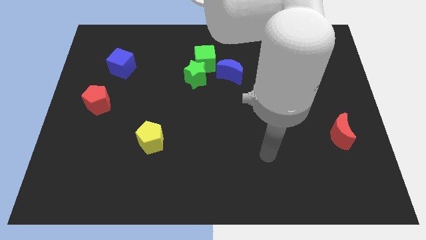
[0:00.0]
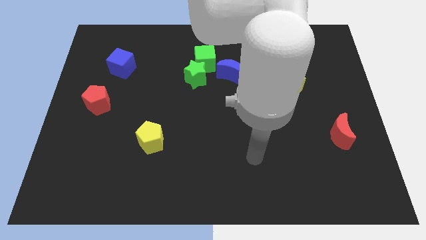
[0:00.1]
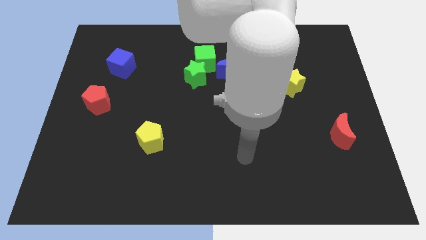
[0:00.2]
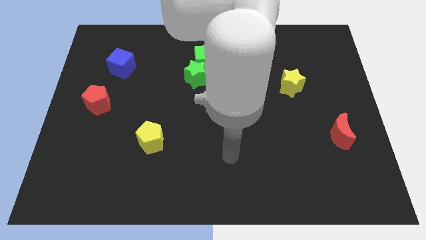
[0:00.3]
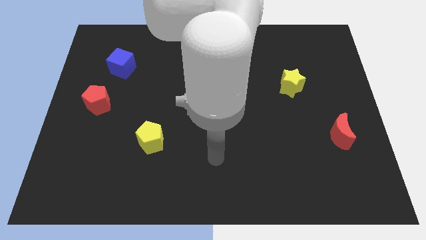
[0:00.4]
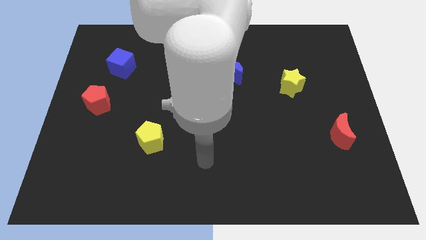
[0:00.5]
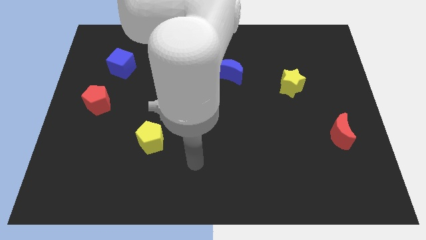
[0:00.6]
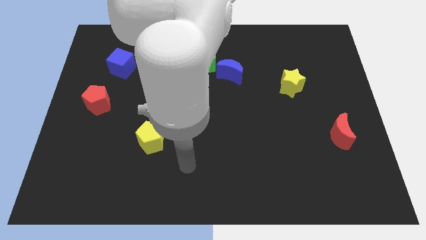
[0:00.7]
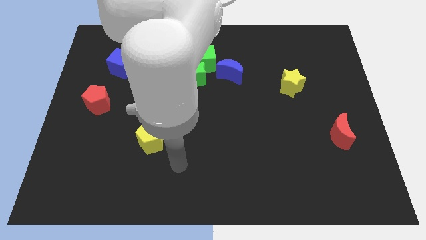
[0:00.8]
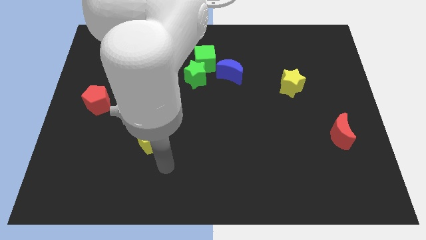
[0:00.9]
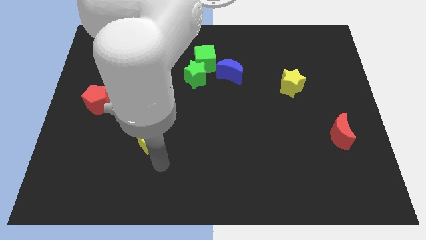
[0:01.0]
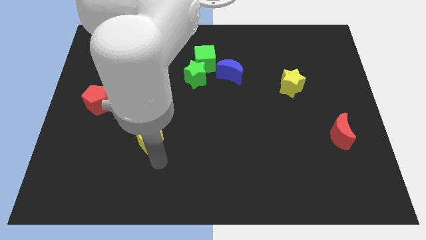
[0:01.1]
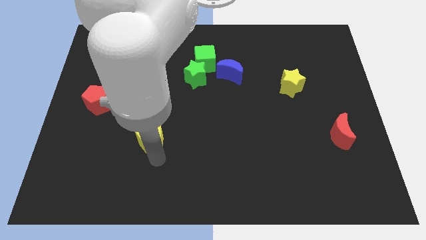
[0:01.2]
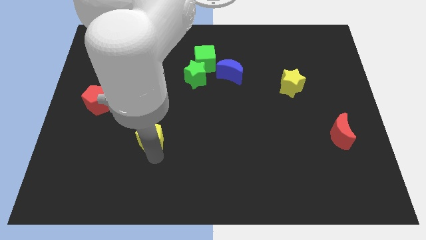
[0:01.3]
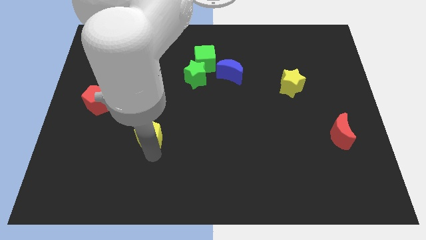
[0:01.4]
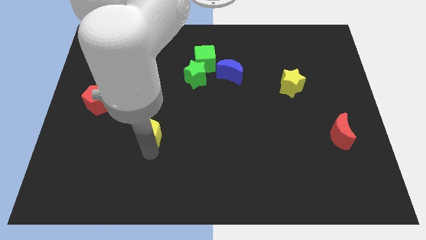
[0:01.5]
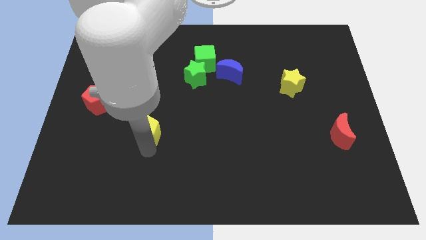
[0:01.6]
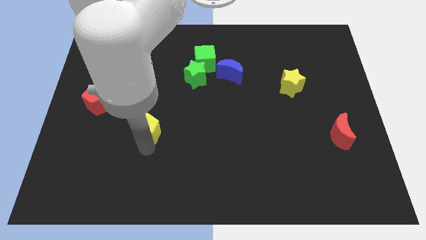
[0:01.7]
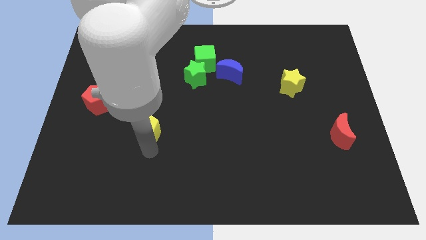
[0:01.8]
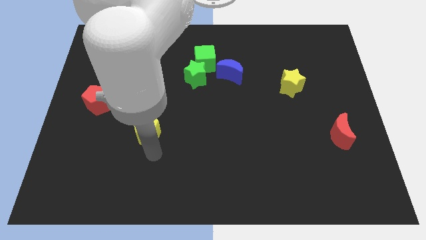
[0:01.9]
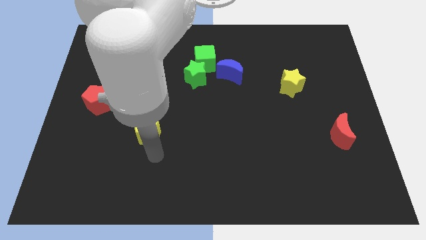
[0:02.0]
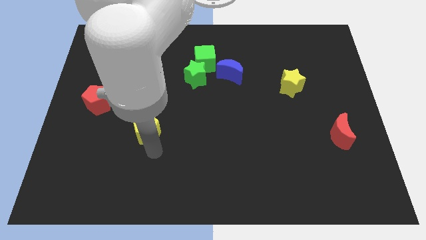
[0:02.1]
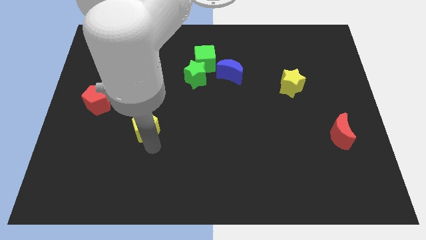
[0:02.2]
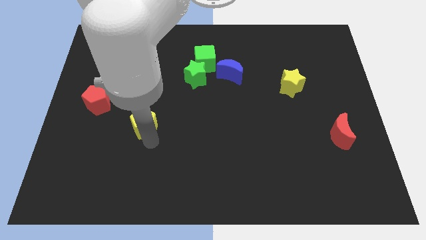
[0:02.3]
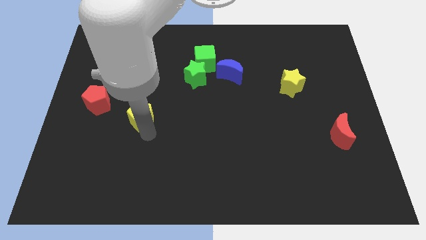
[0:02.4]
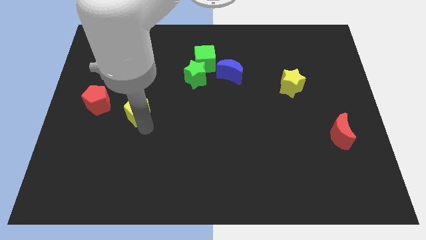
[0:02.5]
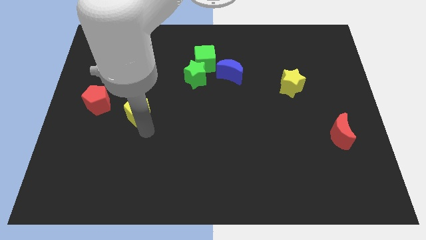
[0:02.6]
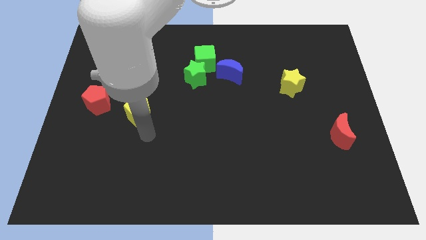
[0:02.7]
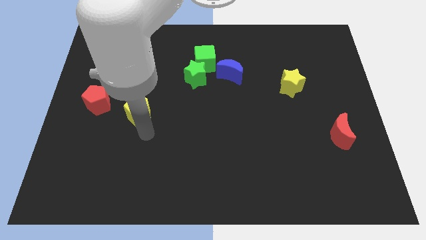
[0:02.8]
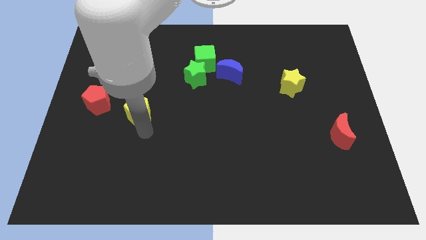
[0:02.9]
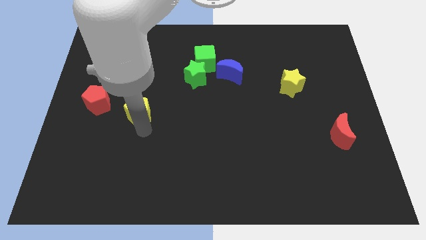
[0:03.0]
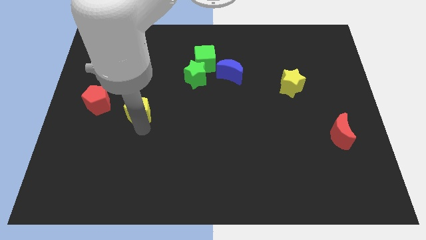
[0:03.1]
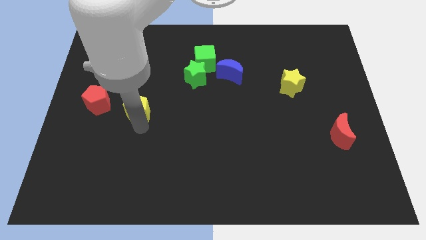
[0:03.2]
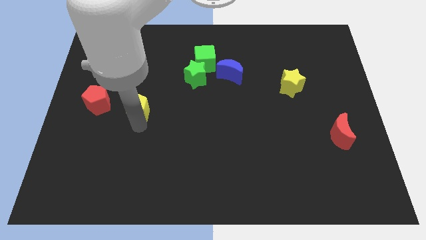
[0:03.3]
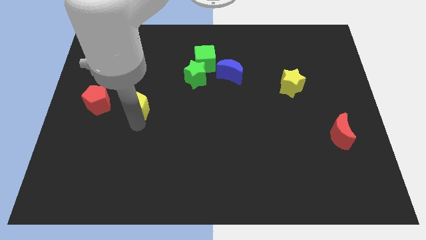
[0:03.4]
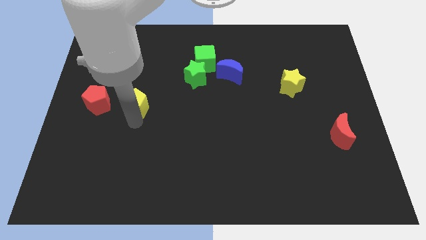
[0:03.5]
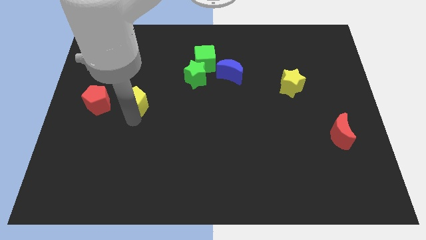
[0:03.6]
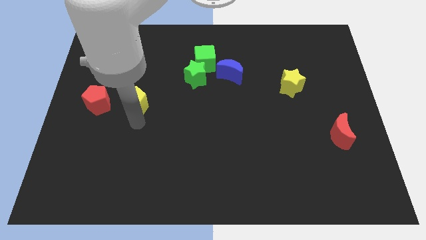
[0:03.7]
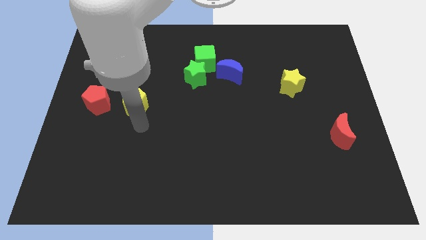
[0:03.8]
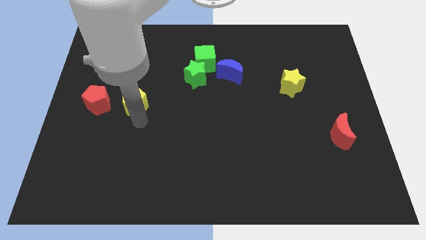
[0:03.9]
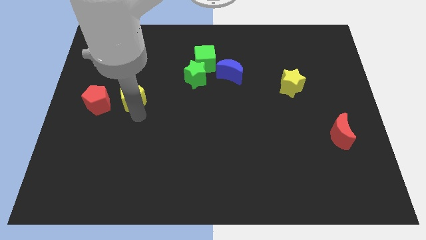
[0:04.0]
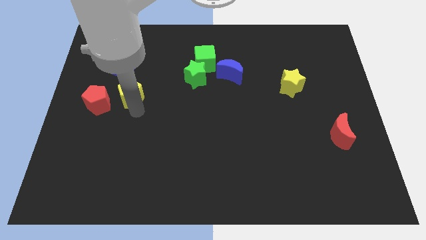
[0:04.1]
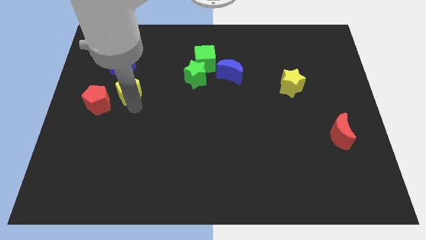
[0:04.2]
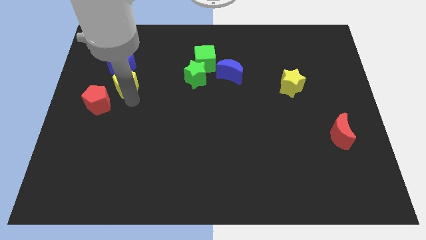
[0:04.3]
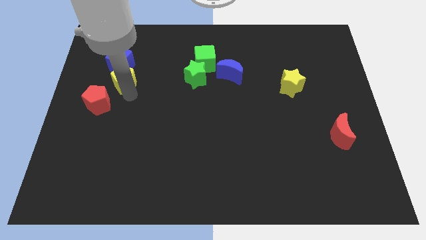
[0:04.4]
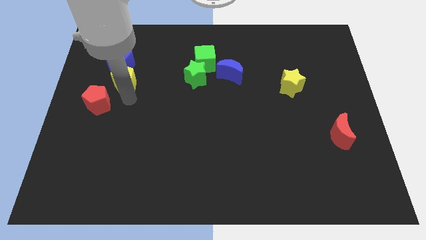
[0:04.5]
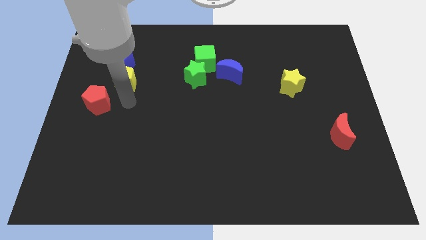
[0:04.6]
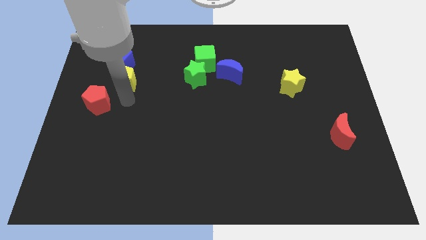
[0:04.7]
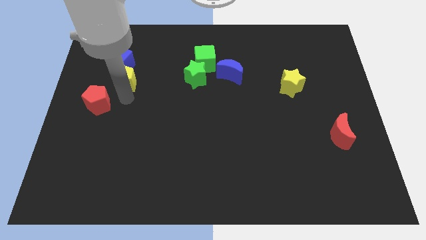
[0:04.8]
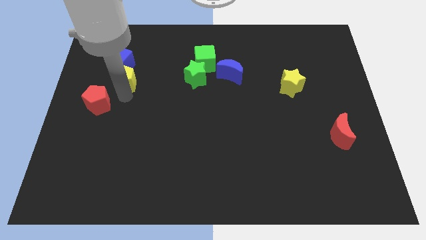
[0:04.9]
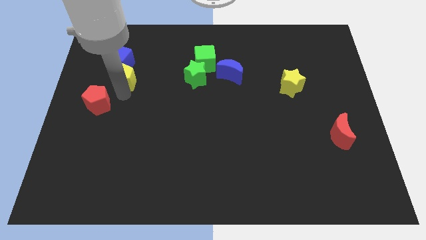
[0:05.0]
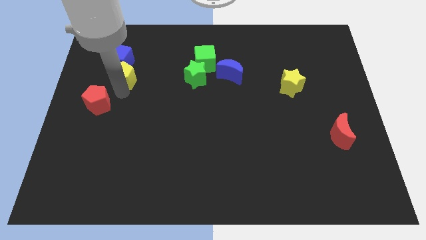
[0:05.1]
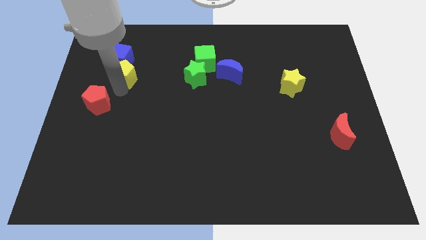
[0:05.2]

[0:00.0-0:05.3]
push the yellow pentagon next to the blue cube

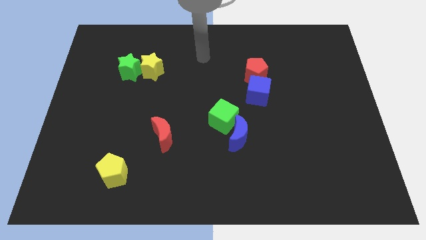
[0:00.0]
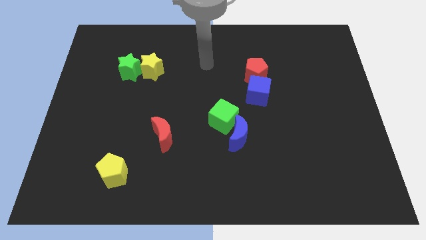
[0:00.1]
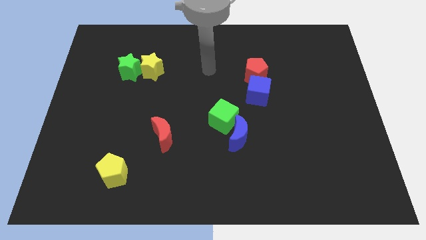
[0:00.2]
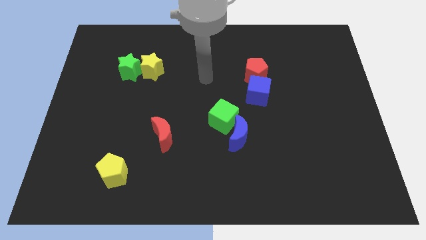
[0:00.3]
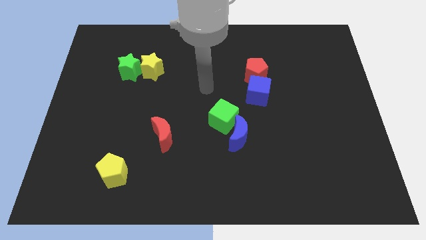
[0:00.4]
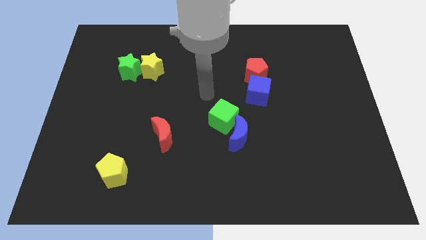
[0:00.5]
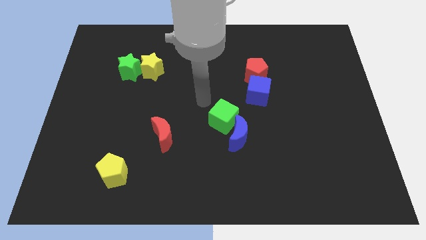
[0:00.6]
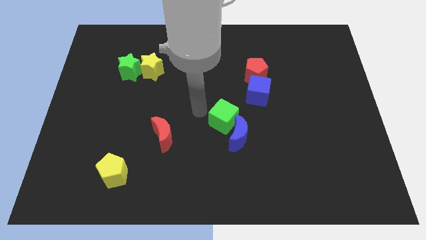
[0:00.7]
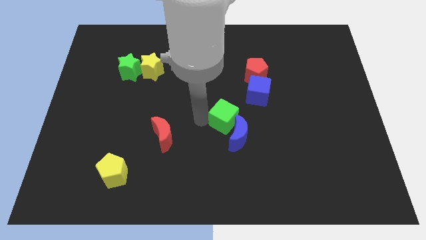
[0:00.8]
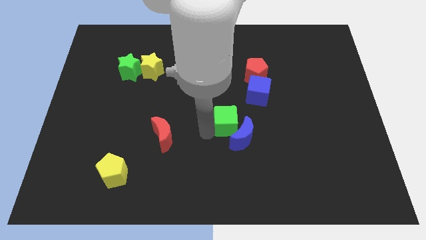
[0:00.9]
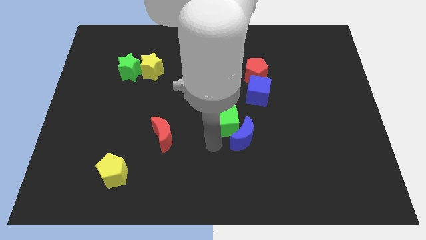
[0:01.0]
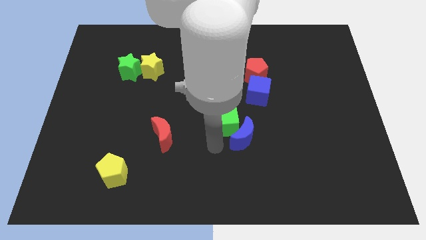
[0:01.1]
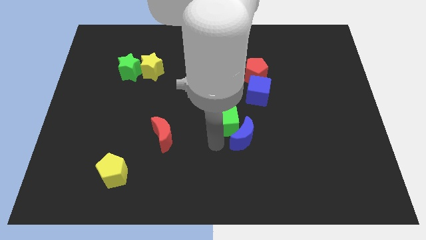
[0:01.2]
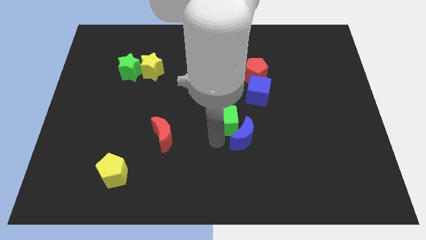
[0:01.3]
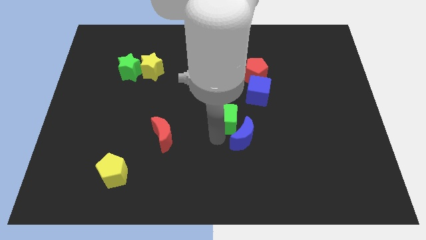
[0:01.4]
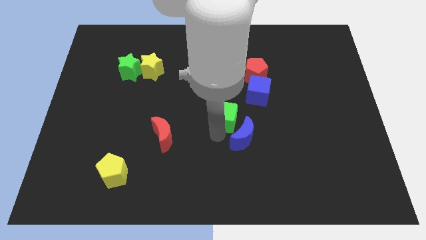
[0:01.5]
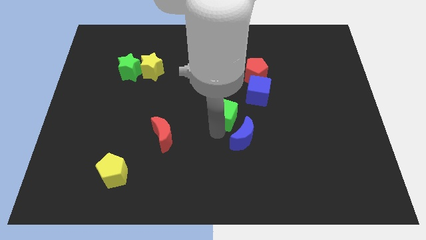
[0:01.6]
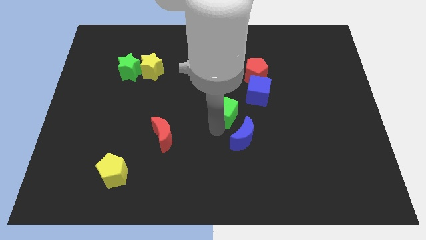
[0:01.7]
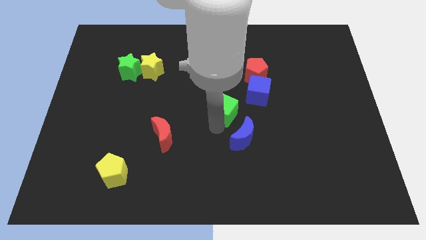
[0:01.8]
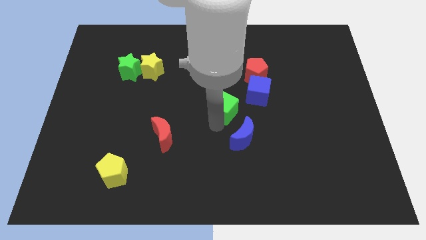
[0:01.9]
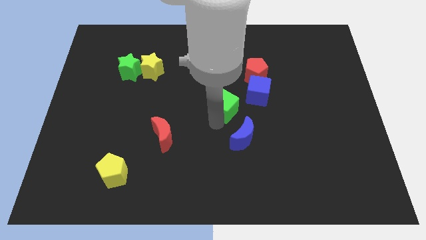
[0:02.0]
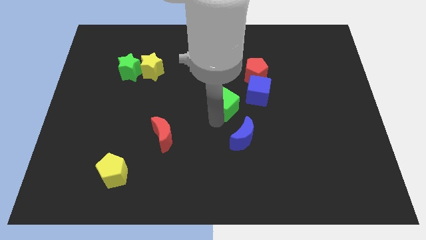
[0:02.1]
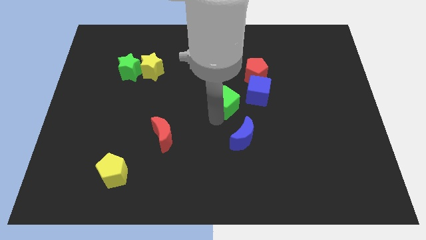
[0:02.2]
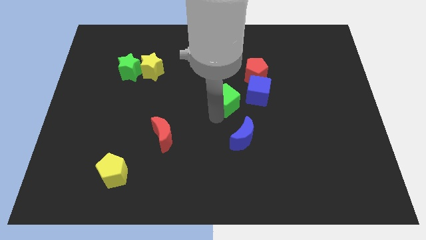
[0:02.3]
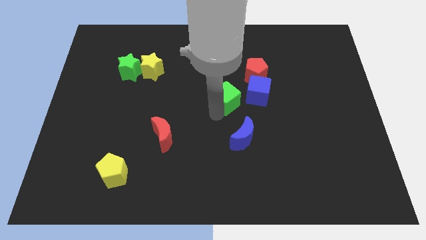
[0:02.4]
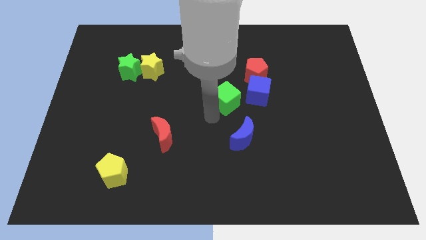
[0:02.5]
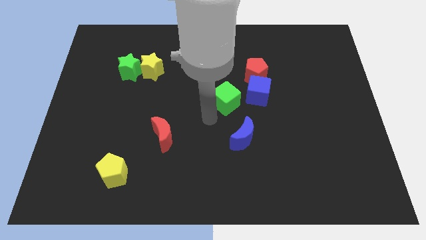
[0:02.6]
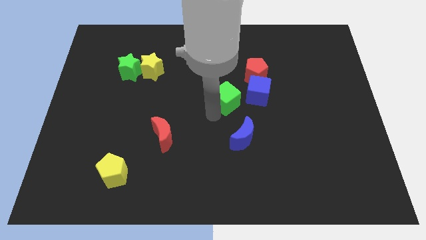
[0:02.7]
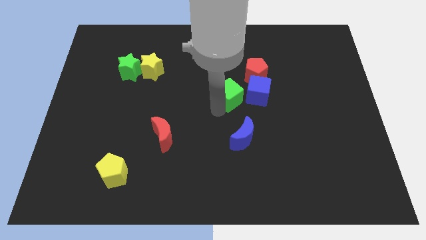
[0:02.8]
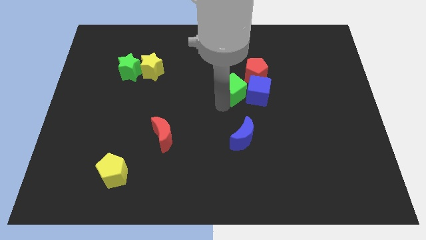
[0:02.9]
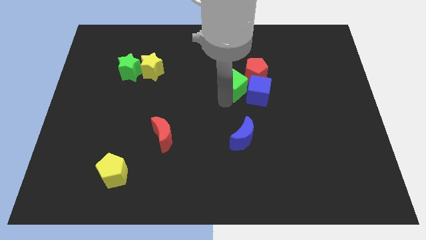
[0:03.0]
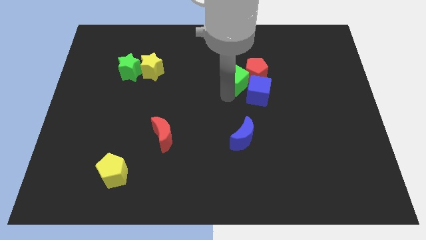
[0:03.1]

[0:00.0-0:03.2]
move the green cube next to the red pentagon
